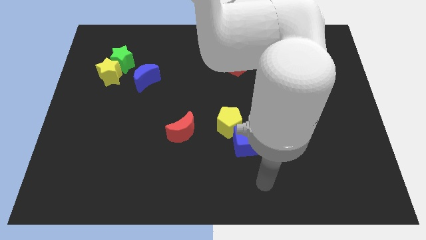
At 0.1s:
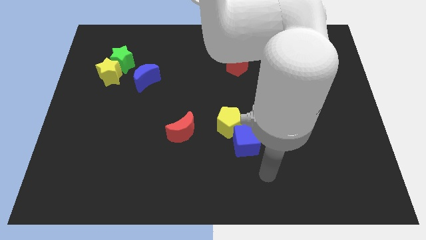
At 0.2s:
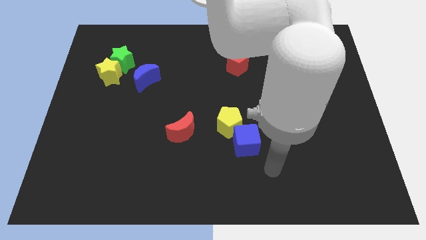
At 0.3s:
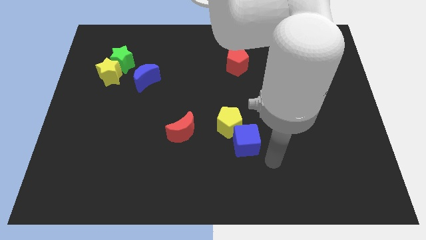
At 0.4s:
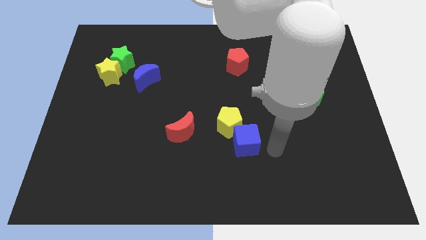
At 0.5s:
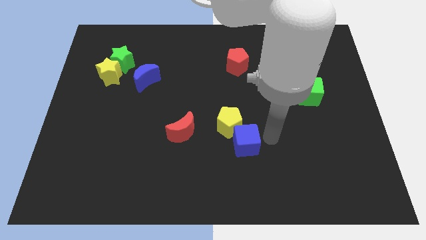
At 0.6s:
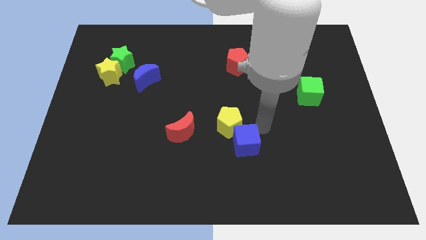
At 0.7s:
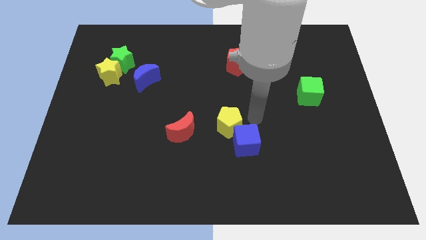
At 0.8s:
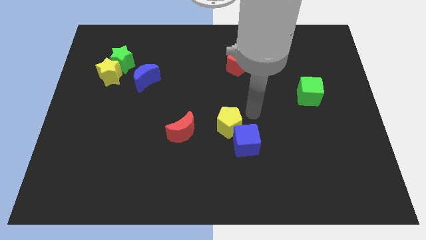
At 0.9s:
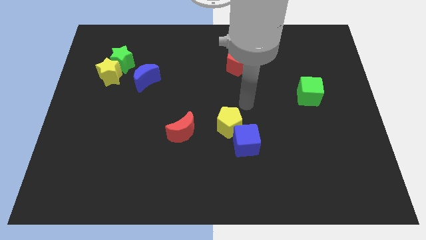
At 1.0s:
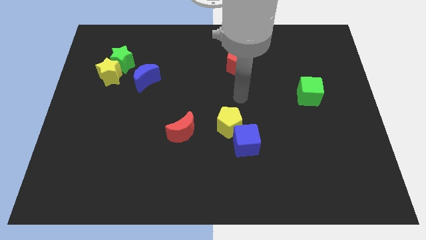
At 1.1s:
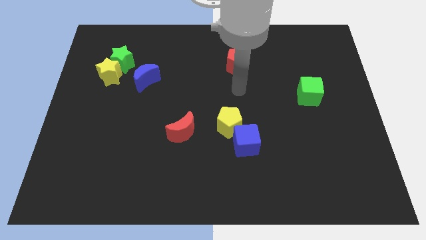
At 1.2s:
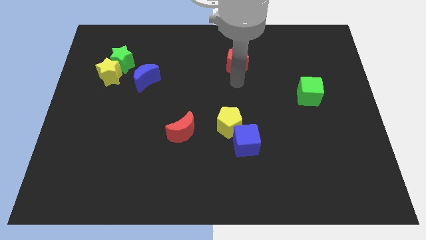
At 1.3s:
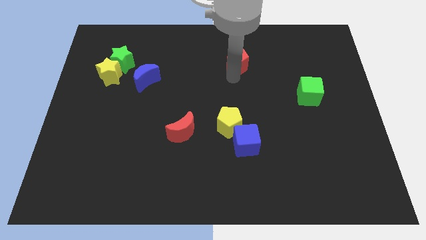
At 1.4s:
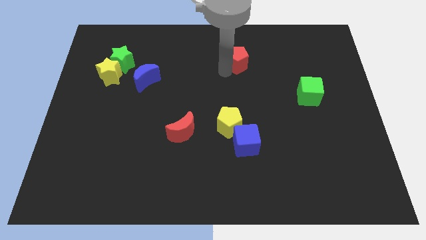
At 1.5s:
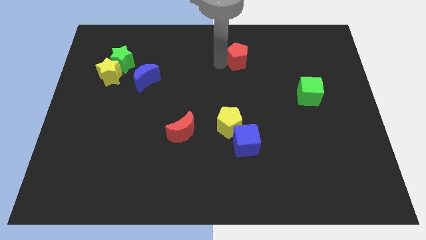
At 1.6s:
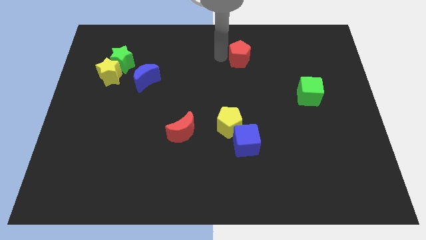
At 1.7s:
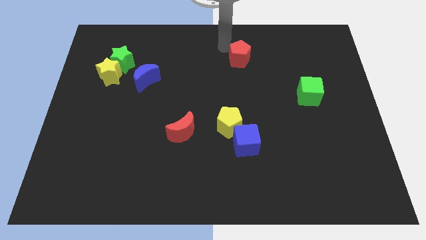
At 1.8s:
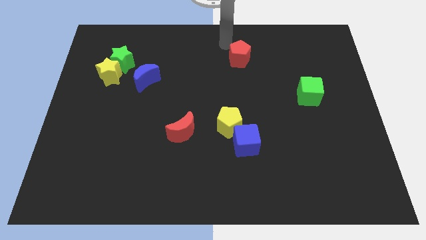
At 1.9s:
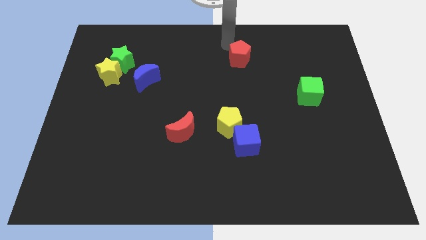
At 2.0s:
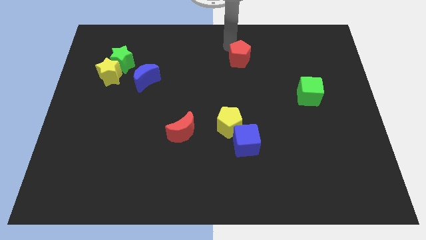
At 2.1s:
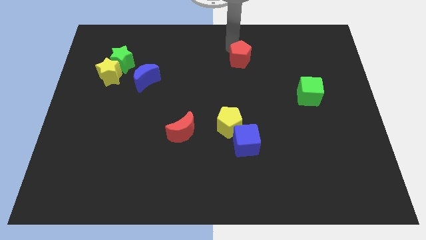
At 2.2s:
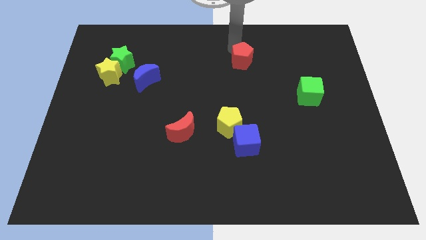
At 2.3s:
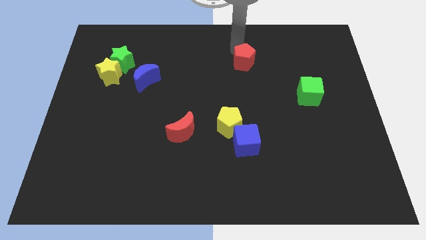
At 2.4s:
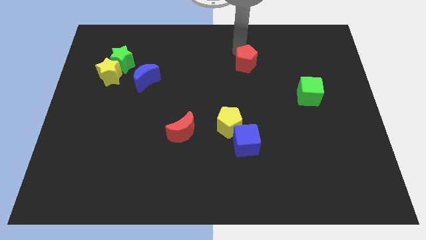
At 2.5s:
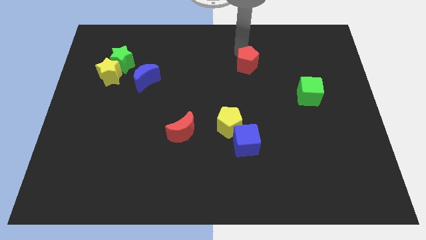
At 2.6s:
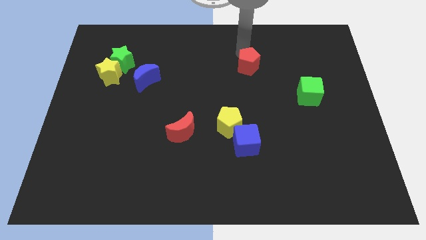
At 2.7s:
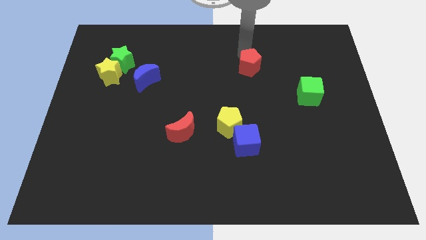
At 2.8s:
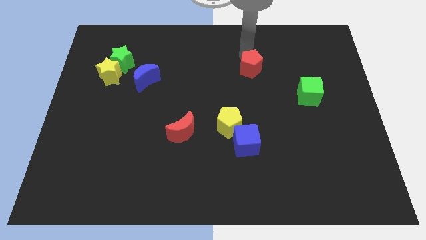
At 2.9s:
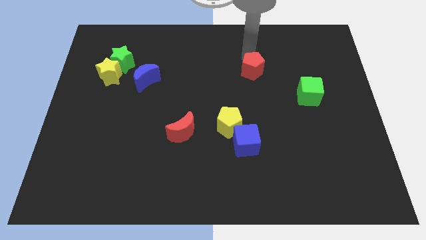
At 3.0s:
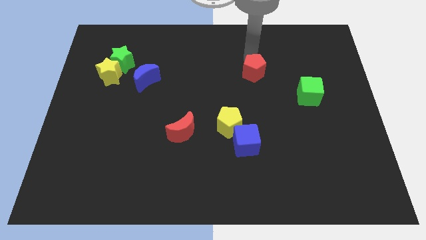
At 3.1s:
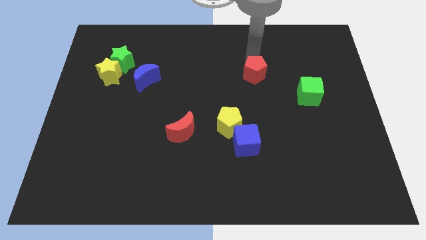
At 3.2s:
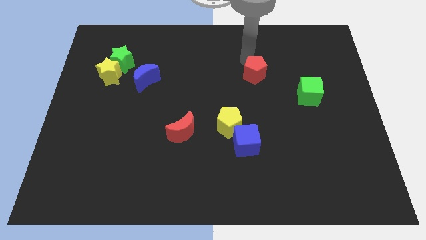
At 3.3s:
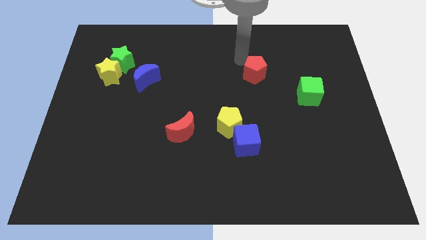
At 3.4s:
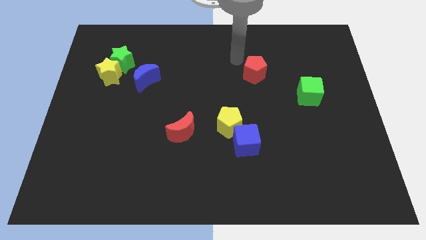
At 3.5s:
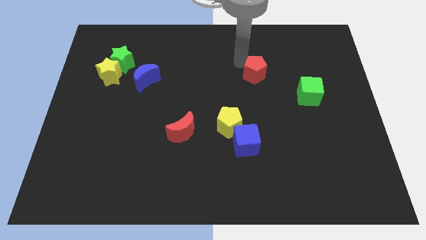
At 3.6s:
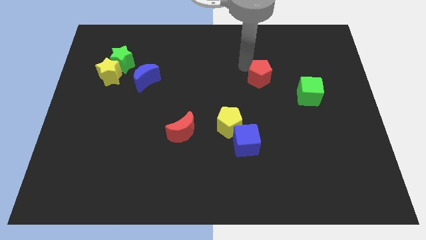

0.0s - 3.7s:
slide the red pentagon a little bit downwards and right

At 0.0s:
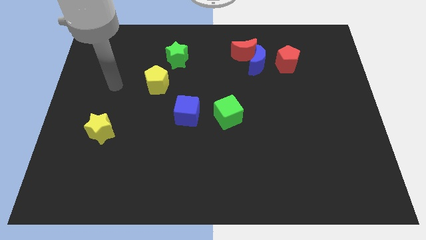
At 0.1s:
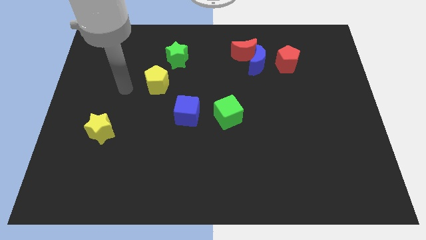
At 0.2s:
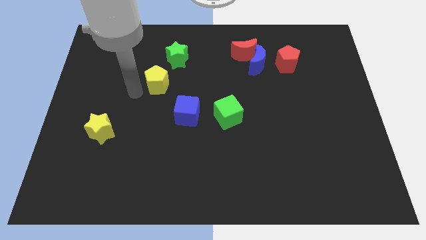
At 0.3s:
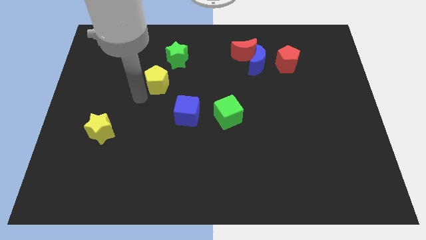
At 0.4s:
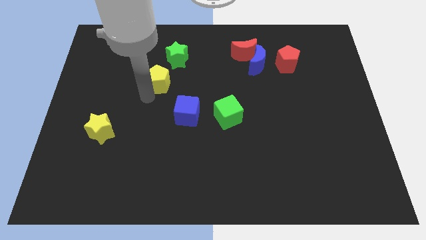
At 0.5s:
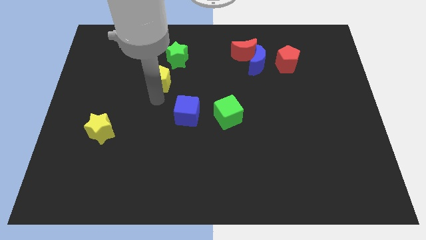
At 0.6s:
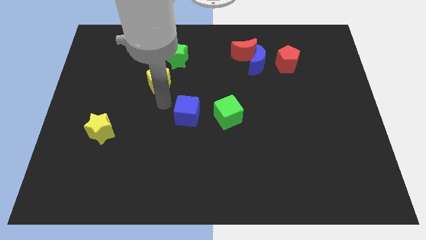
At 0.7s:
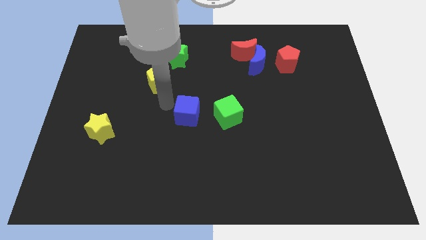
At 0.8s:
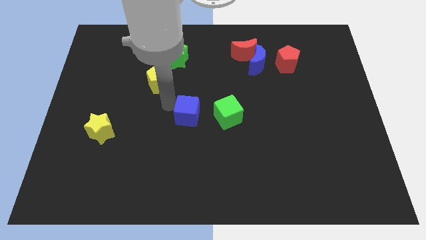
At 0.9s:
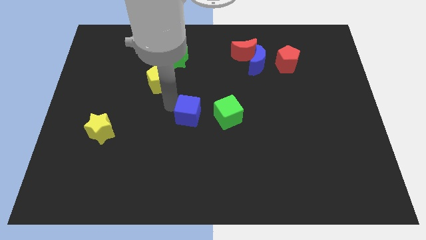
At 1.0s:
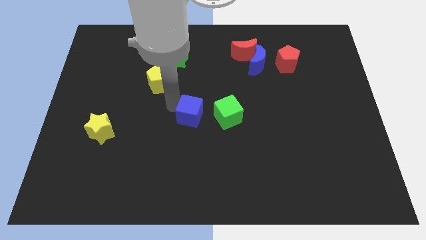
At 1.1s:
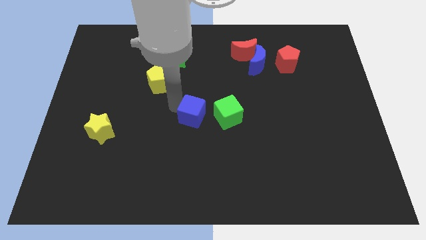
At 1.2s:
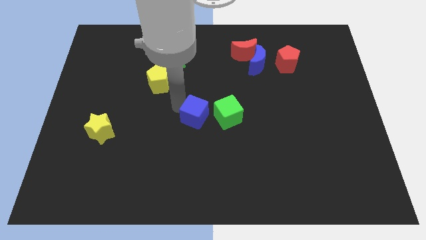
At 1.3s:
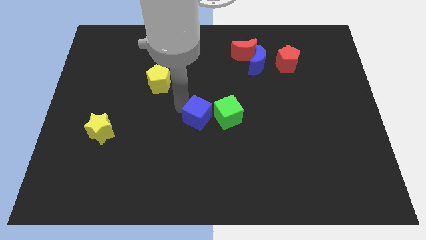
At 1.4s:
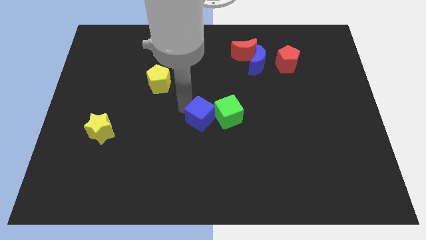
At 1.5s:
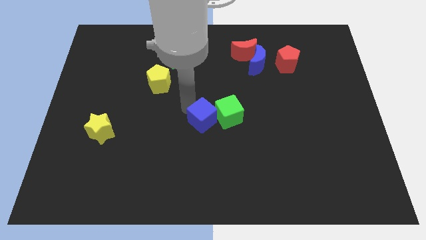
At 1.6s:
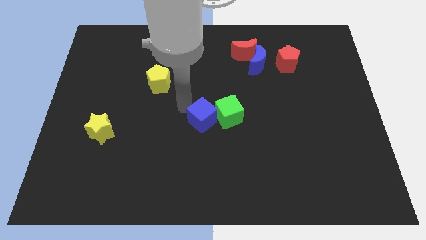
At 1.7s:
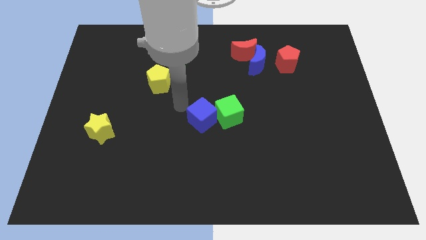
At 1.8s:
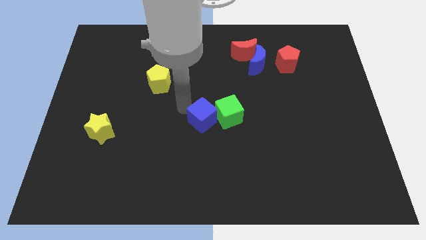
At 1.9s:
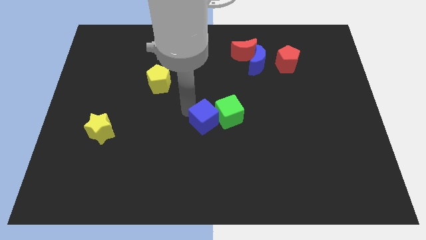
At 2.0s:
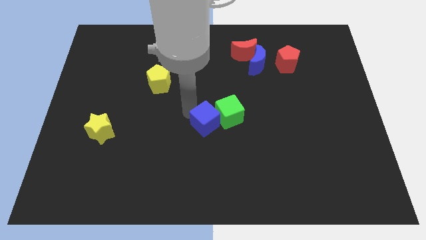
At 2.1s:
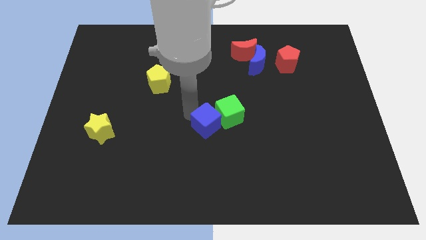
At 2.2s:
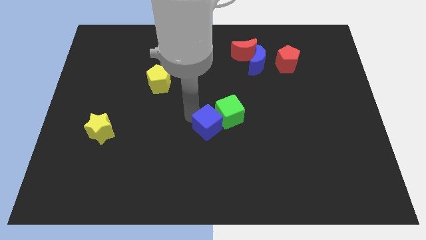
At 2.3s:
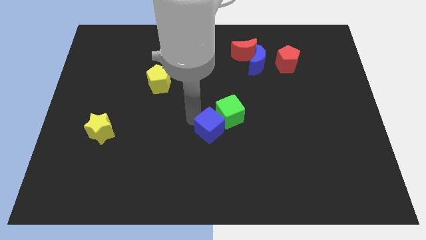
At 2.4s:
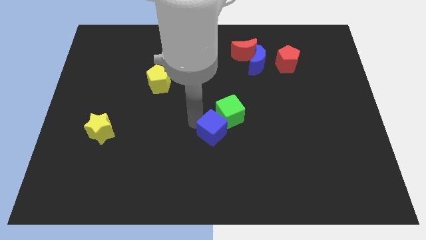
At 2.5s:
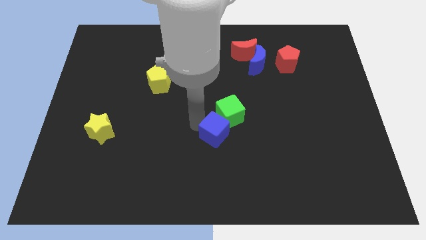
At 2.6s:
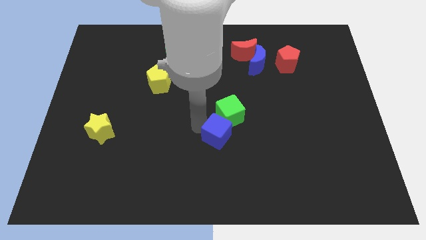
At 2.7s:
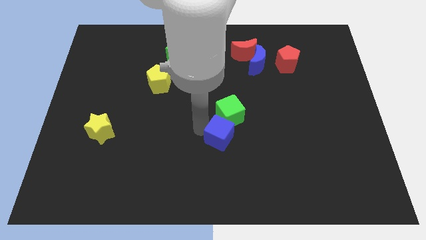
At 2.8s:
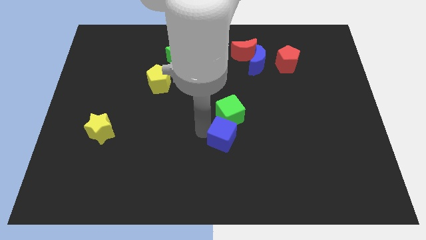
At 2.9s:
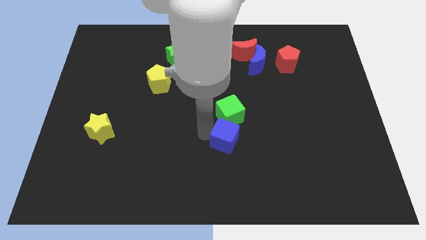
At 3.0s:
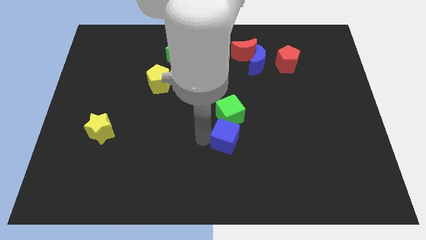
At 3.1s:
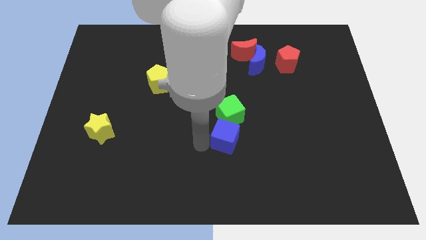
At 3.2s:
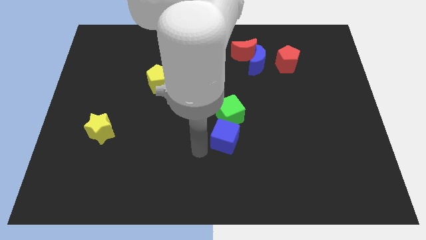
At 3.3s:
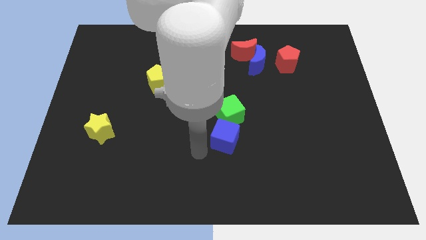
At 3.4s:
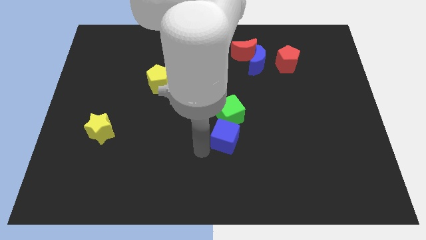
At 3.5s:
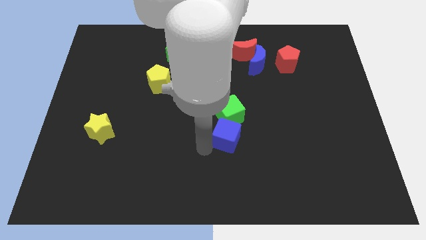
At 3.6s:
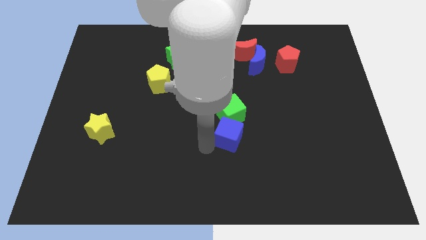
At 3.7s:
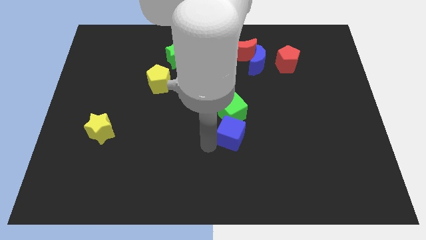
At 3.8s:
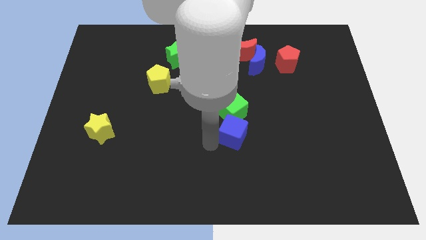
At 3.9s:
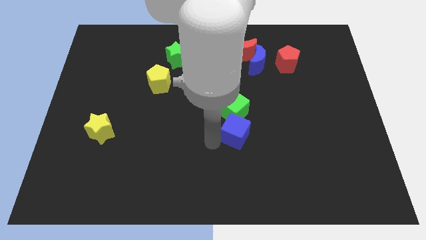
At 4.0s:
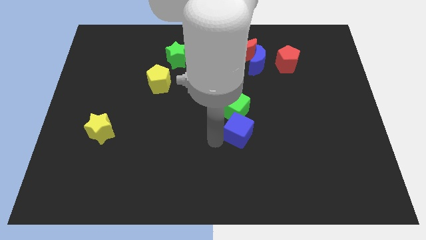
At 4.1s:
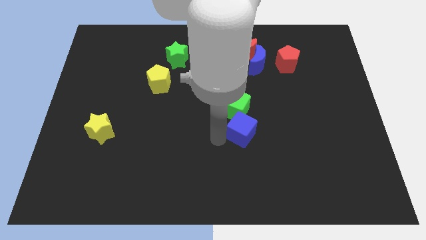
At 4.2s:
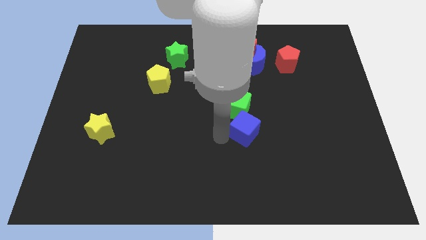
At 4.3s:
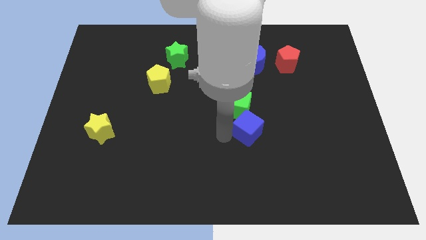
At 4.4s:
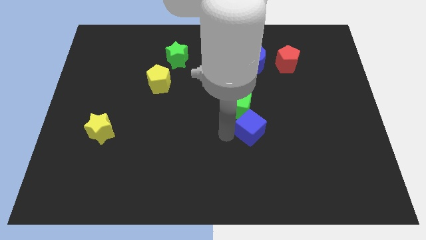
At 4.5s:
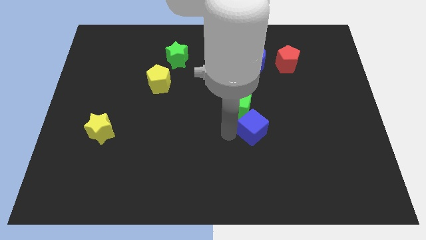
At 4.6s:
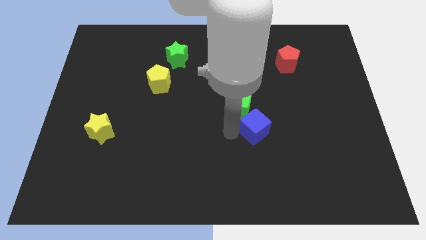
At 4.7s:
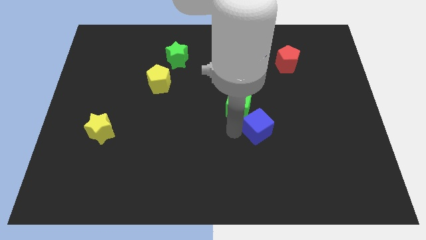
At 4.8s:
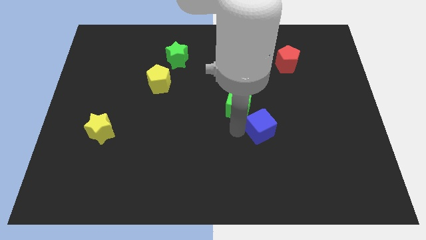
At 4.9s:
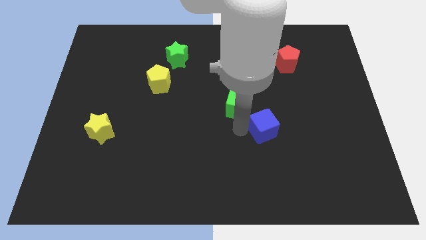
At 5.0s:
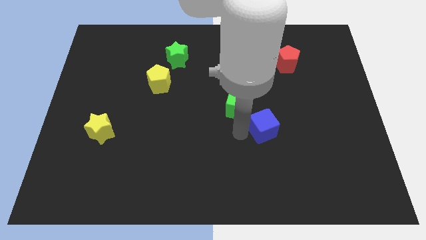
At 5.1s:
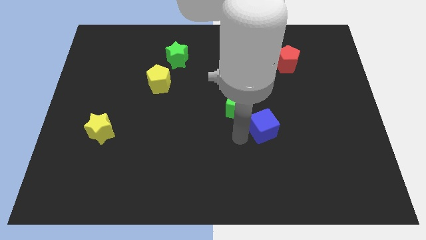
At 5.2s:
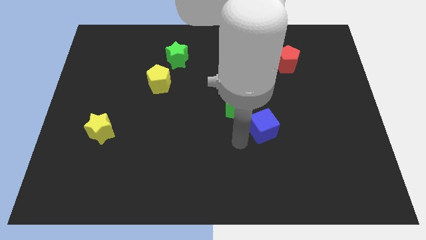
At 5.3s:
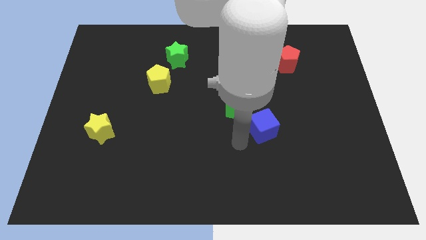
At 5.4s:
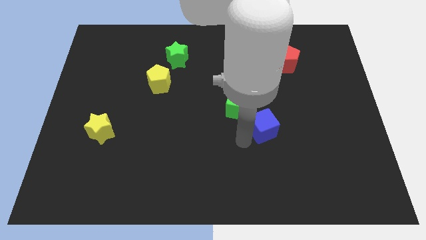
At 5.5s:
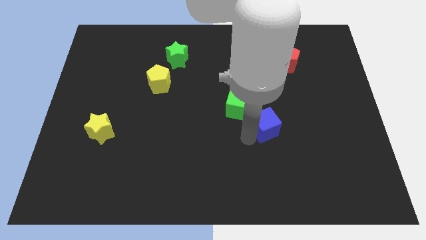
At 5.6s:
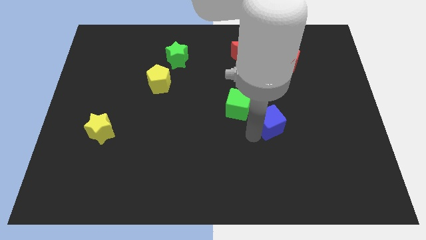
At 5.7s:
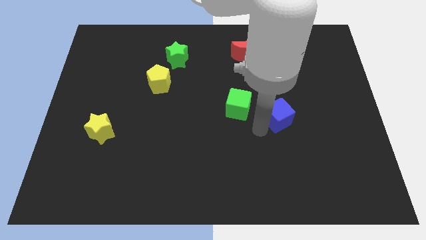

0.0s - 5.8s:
slide the blue cube to the right
